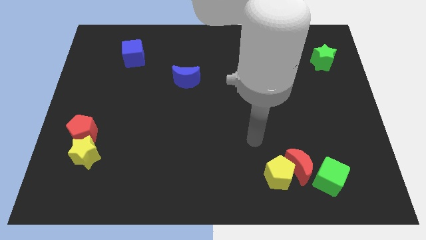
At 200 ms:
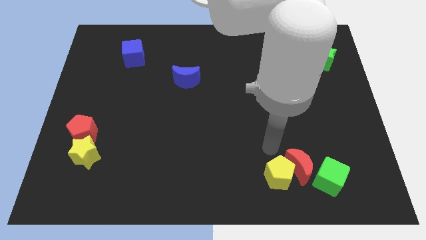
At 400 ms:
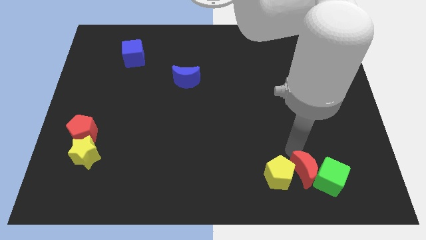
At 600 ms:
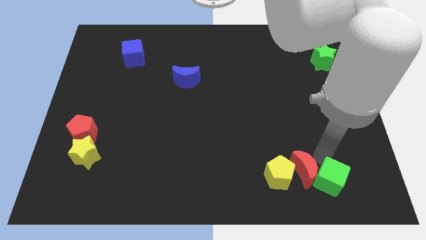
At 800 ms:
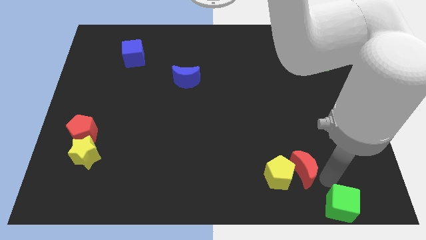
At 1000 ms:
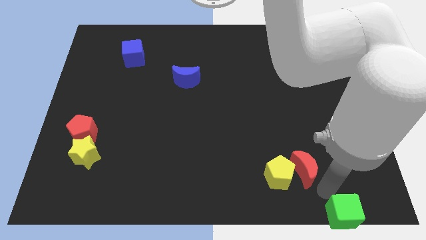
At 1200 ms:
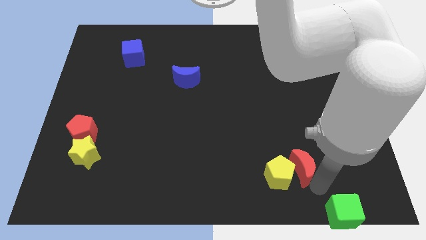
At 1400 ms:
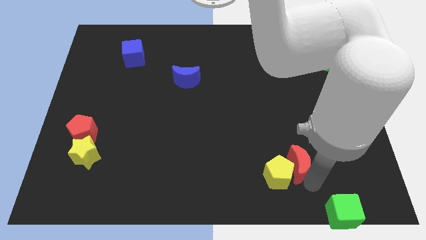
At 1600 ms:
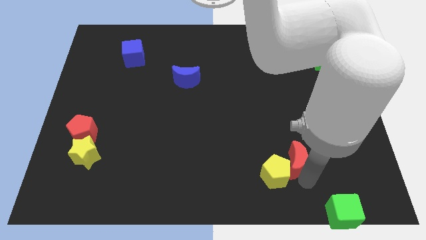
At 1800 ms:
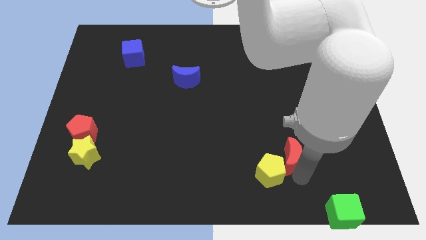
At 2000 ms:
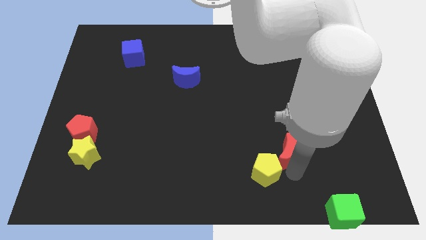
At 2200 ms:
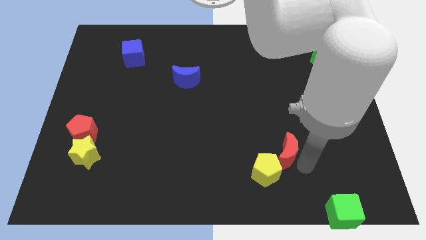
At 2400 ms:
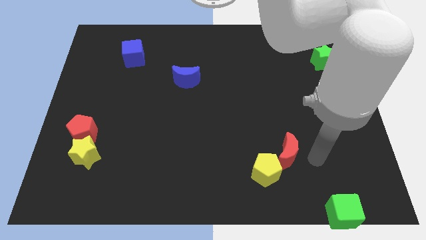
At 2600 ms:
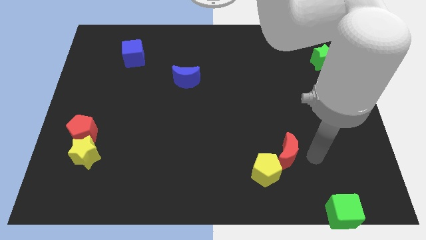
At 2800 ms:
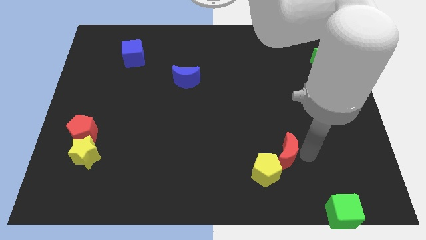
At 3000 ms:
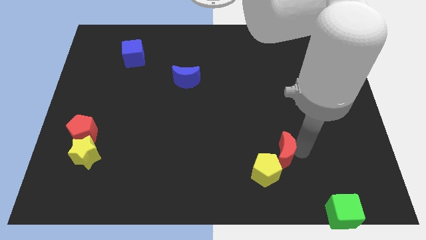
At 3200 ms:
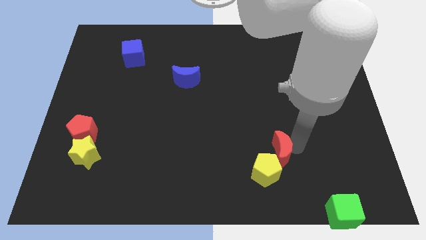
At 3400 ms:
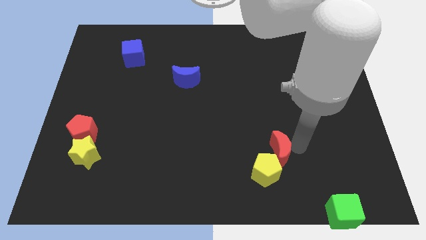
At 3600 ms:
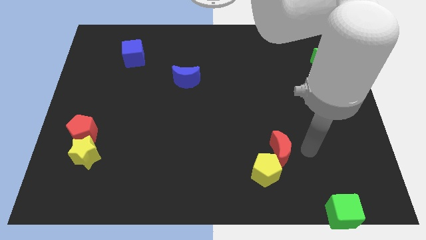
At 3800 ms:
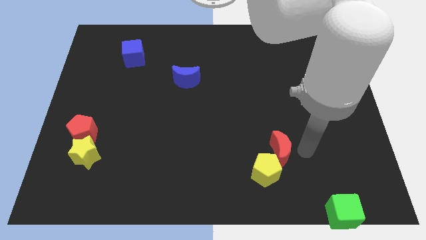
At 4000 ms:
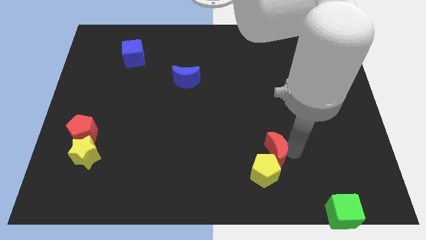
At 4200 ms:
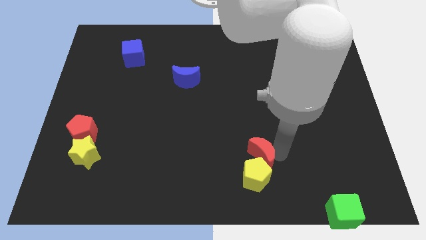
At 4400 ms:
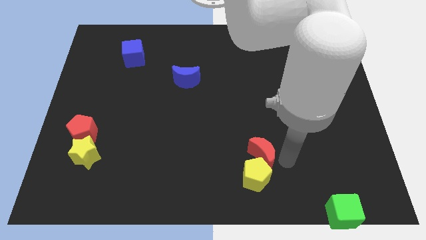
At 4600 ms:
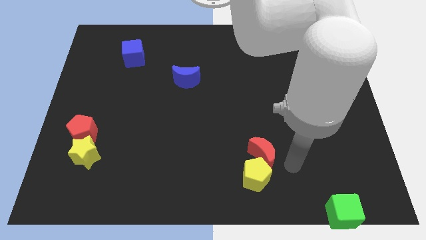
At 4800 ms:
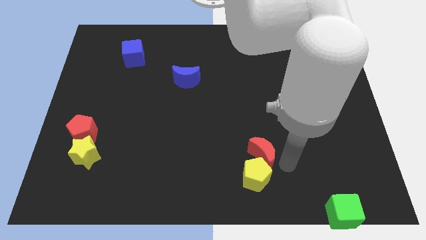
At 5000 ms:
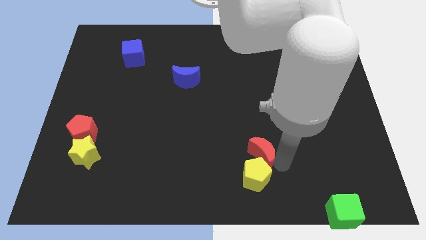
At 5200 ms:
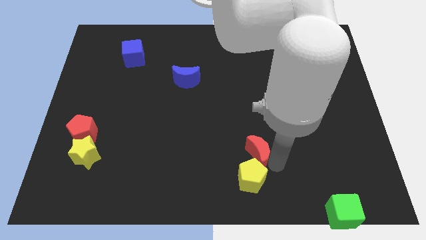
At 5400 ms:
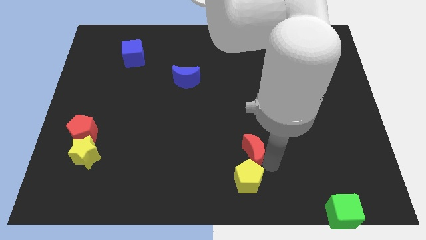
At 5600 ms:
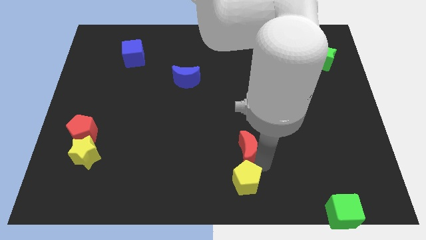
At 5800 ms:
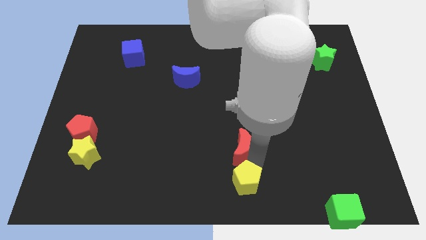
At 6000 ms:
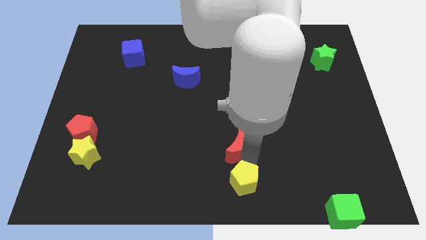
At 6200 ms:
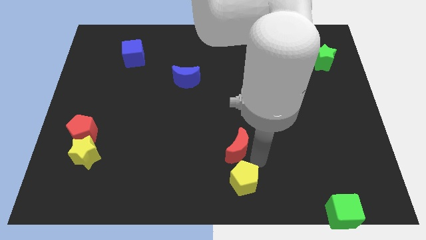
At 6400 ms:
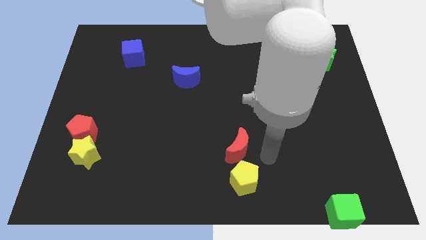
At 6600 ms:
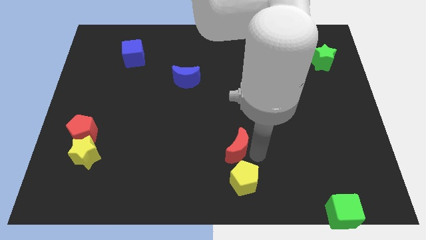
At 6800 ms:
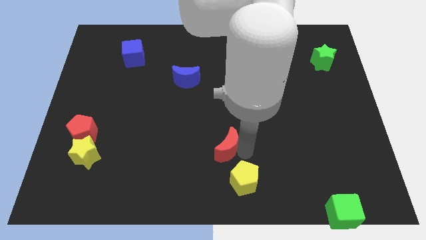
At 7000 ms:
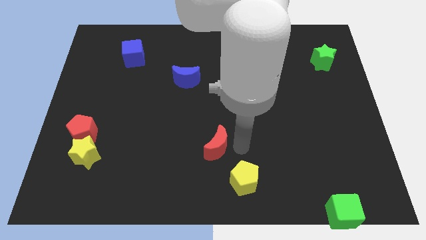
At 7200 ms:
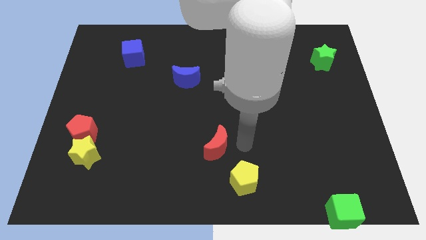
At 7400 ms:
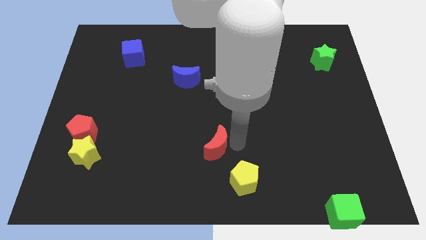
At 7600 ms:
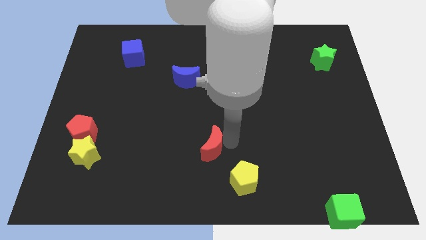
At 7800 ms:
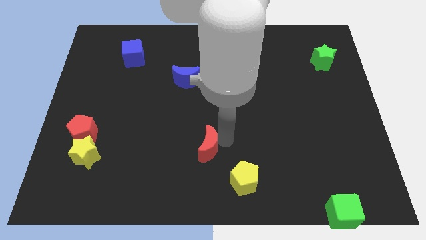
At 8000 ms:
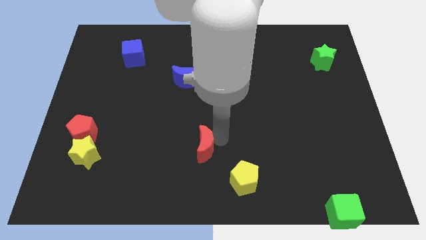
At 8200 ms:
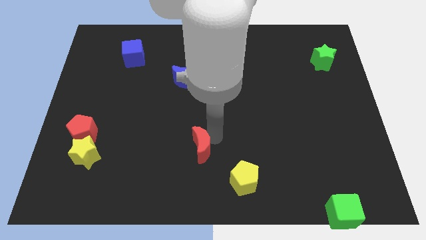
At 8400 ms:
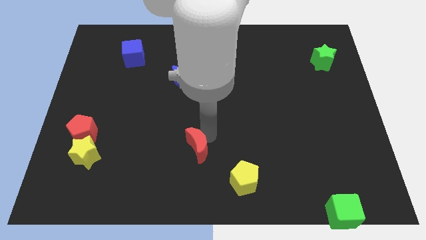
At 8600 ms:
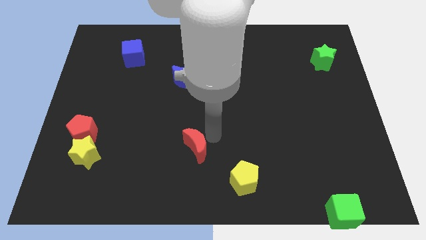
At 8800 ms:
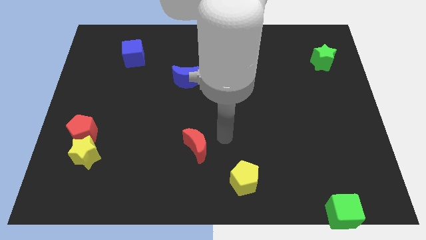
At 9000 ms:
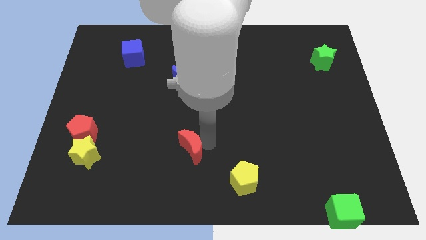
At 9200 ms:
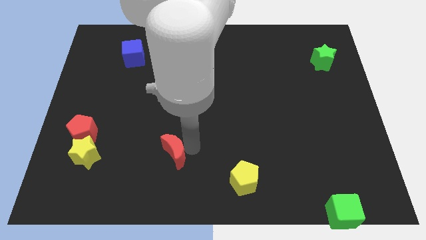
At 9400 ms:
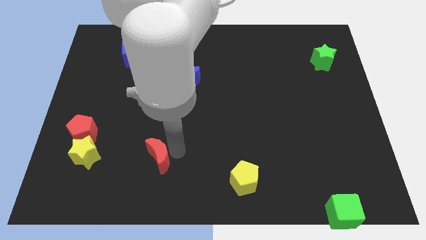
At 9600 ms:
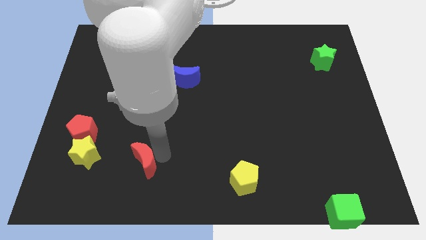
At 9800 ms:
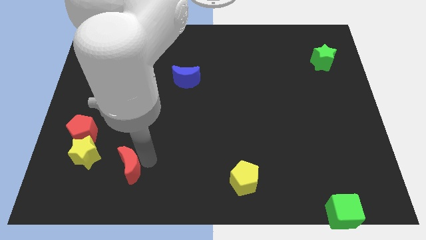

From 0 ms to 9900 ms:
move the red moon diagonally down and to the right of the yellow star

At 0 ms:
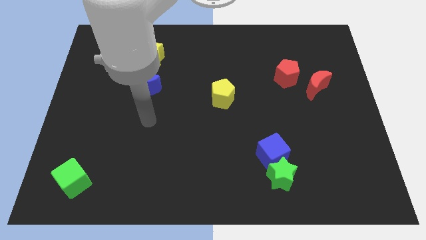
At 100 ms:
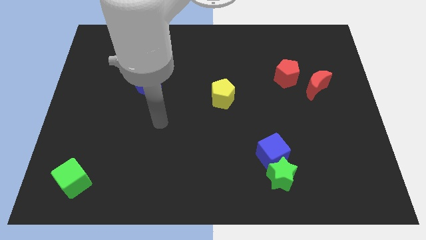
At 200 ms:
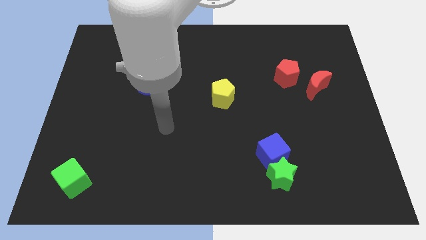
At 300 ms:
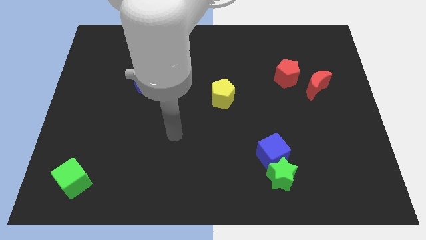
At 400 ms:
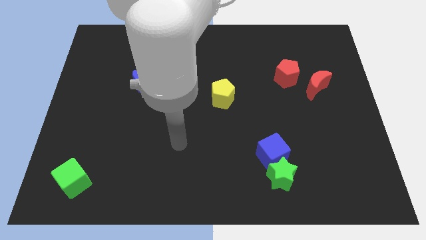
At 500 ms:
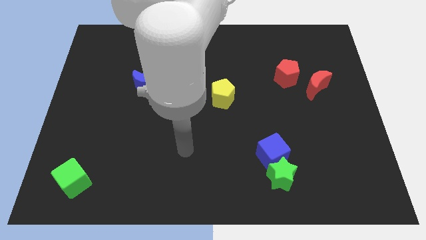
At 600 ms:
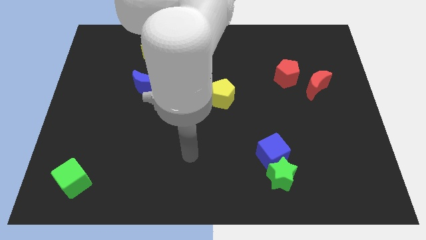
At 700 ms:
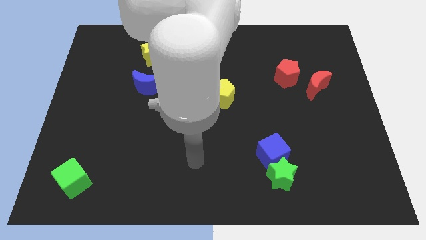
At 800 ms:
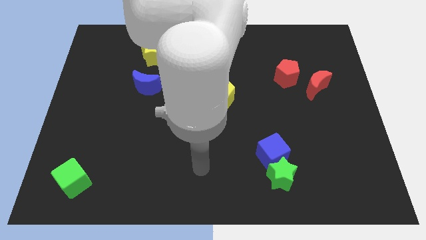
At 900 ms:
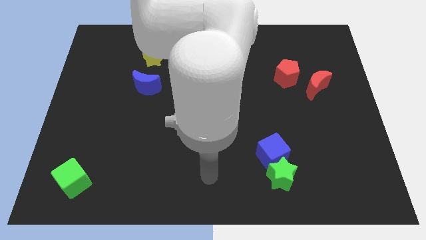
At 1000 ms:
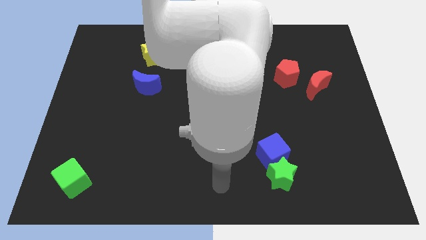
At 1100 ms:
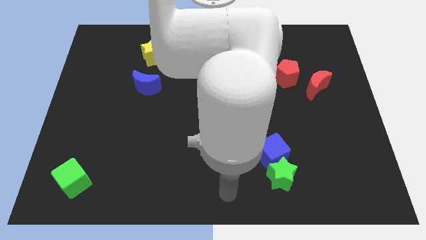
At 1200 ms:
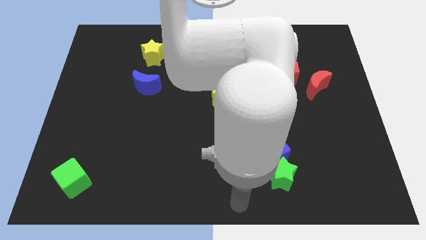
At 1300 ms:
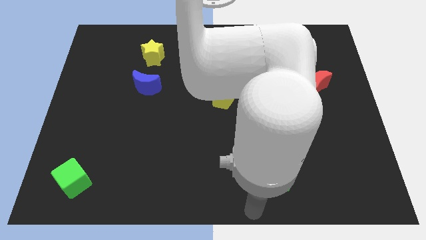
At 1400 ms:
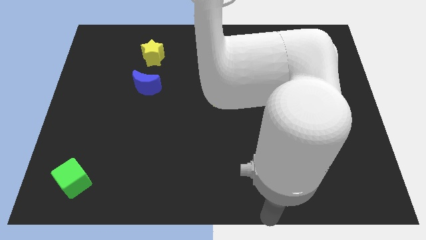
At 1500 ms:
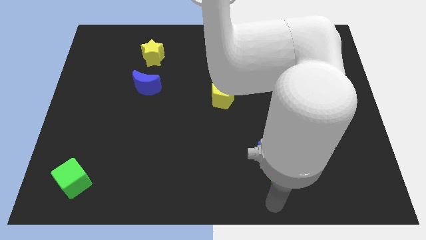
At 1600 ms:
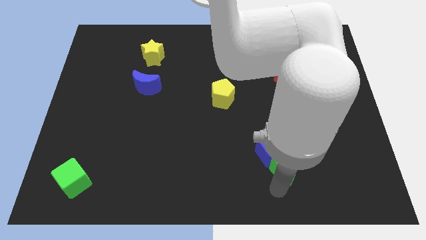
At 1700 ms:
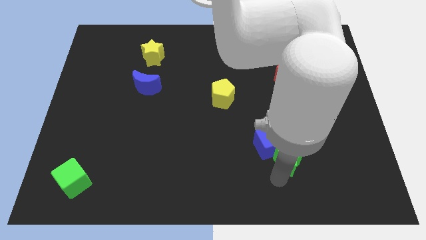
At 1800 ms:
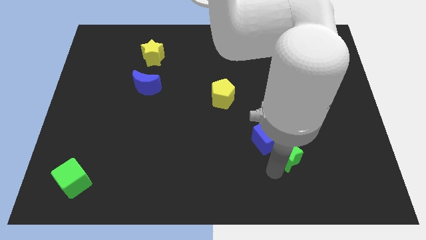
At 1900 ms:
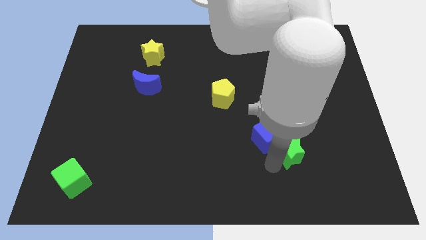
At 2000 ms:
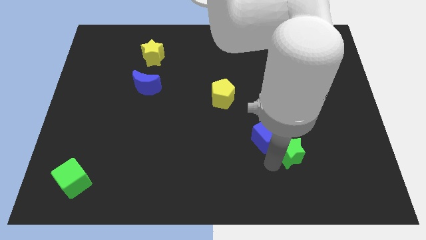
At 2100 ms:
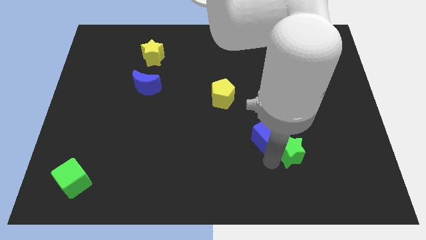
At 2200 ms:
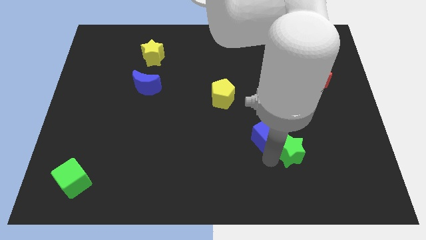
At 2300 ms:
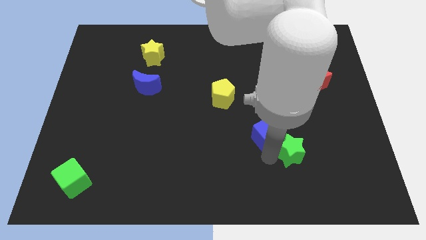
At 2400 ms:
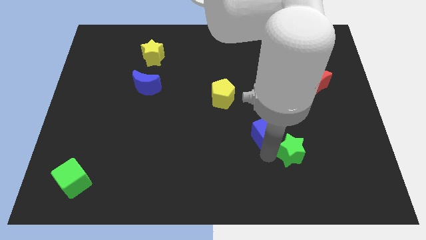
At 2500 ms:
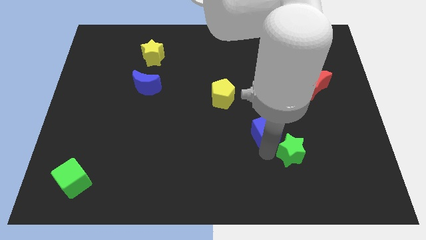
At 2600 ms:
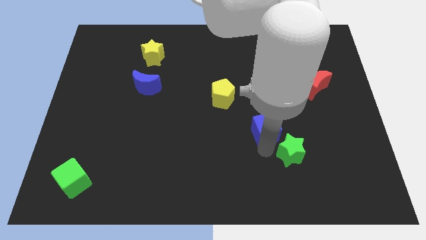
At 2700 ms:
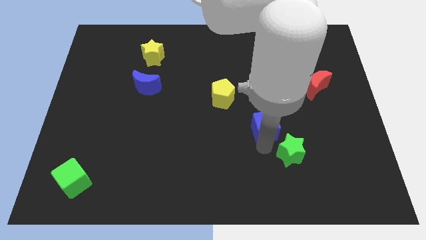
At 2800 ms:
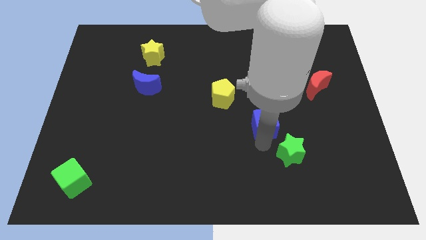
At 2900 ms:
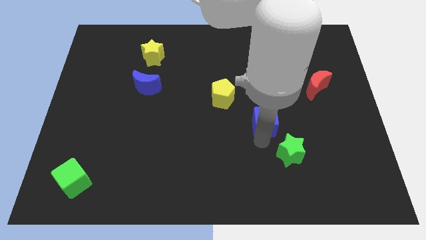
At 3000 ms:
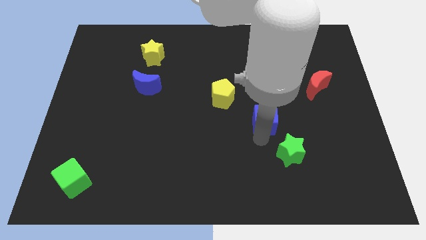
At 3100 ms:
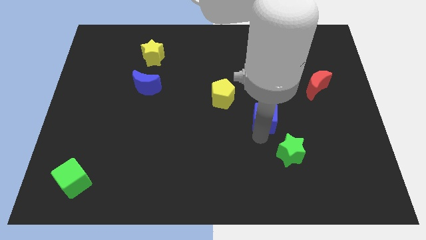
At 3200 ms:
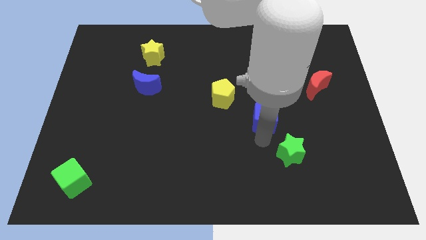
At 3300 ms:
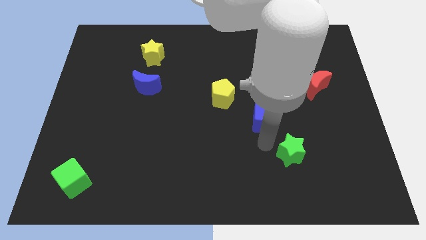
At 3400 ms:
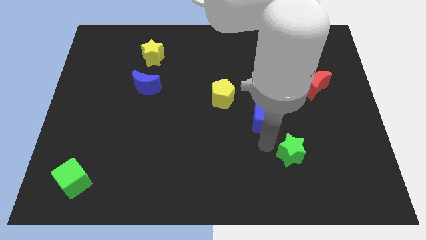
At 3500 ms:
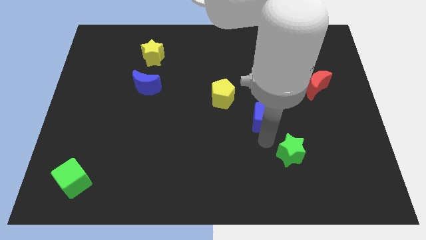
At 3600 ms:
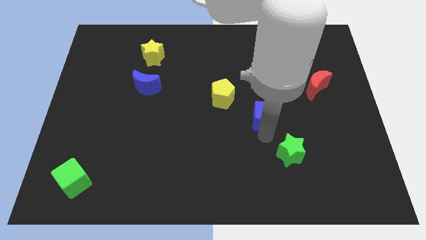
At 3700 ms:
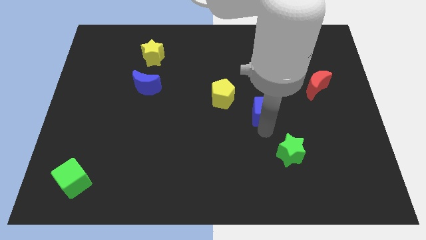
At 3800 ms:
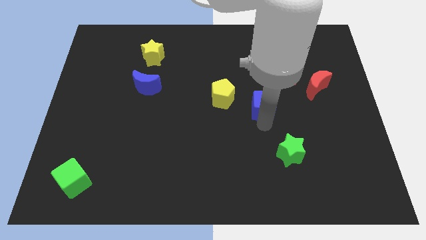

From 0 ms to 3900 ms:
slide the blue cube to the right of the yellow pentagon
